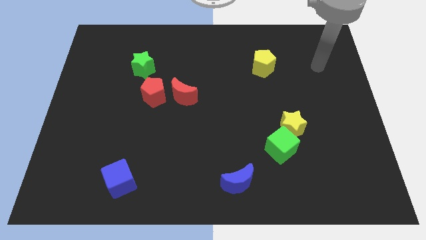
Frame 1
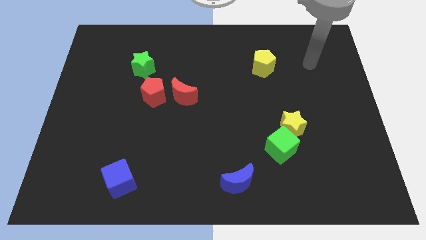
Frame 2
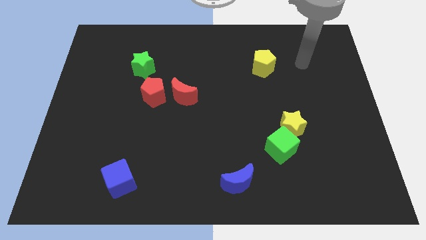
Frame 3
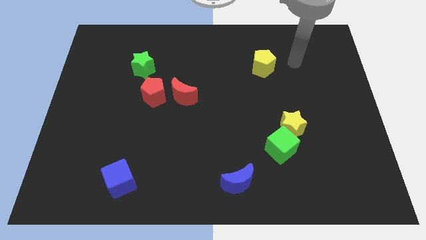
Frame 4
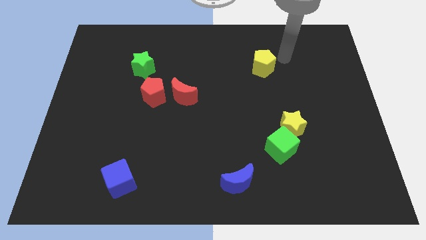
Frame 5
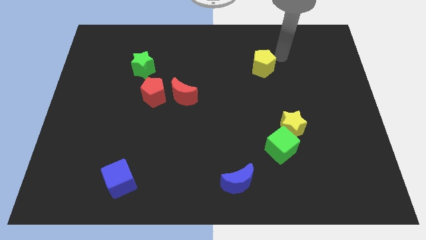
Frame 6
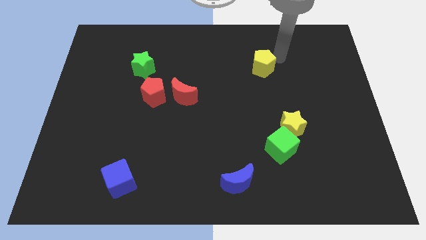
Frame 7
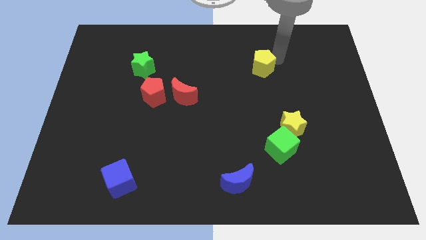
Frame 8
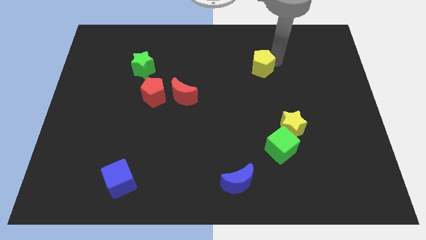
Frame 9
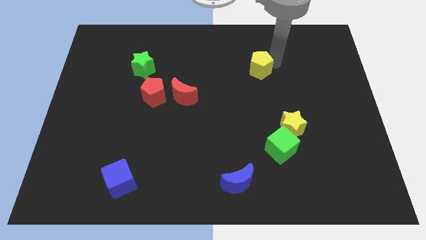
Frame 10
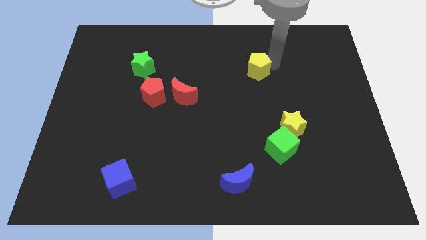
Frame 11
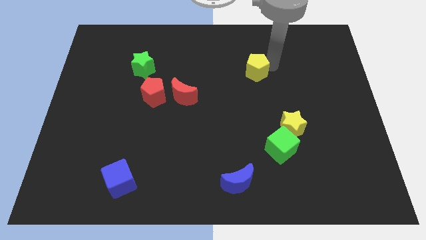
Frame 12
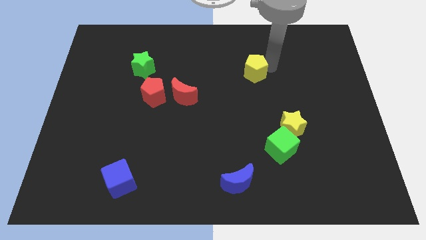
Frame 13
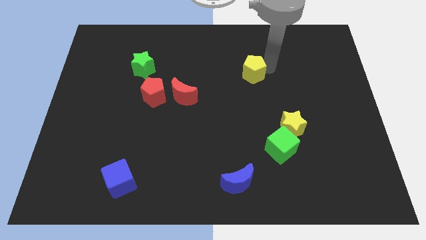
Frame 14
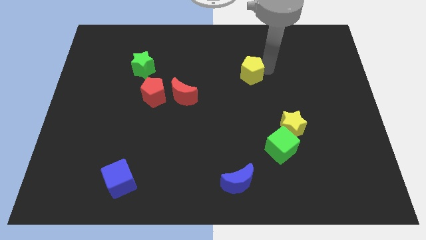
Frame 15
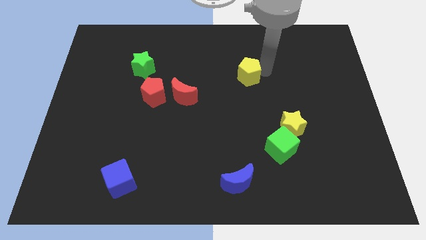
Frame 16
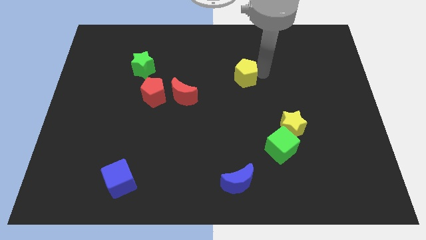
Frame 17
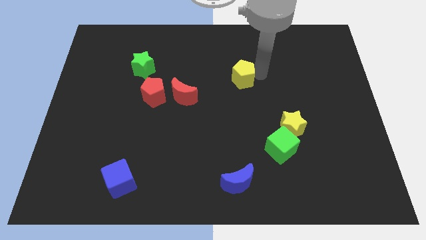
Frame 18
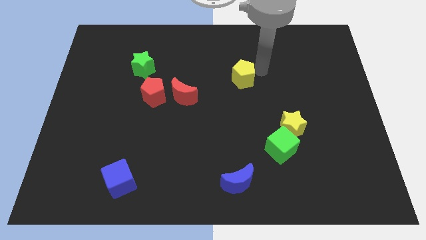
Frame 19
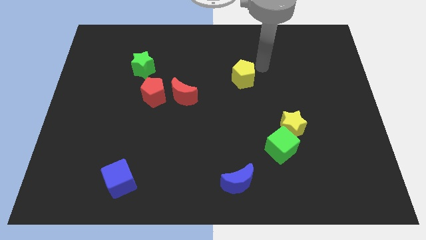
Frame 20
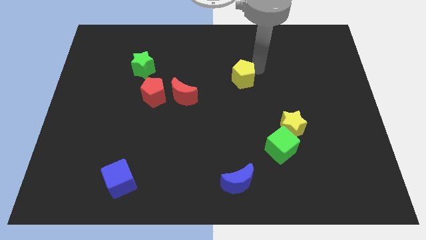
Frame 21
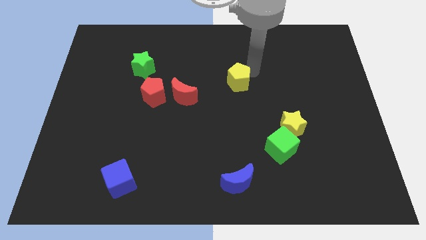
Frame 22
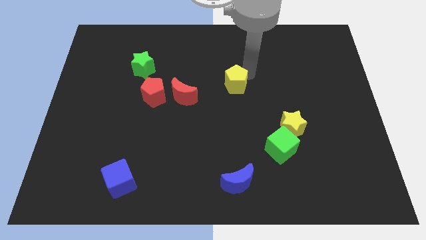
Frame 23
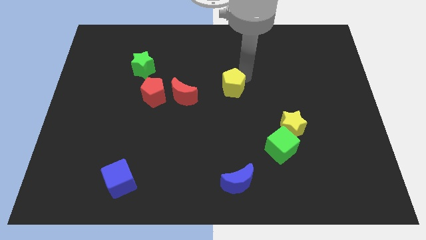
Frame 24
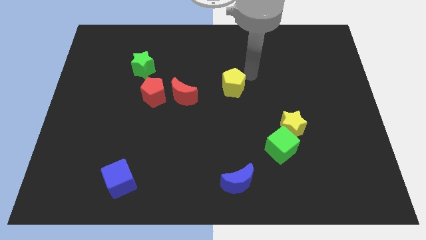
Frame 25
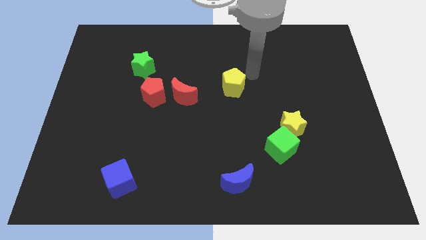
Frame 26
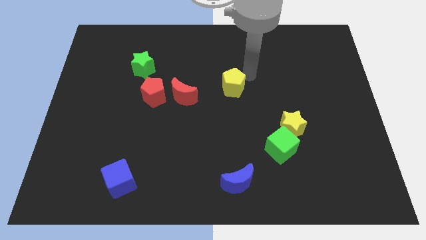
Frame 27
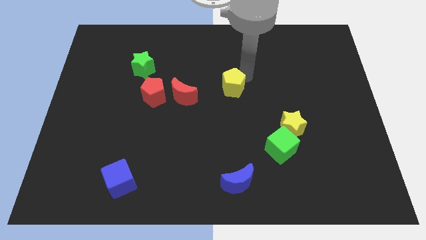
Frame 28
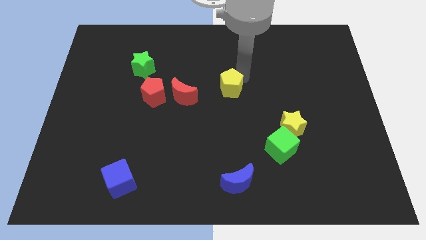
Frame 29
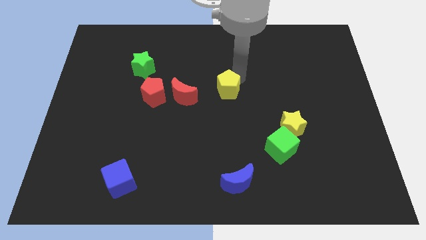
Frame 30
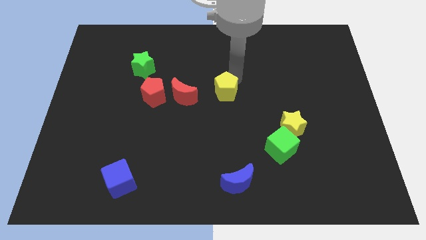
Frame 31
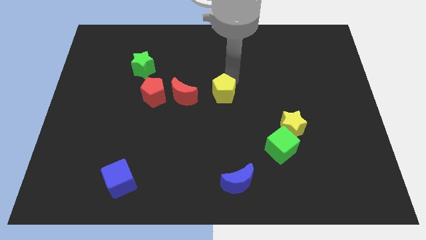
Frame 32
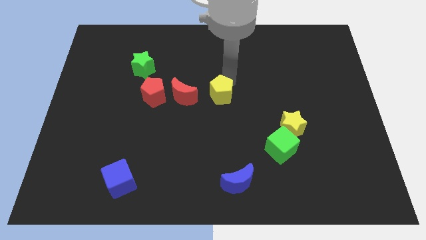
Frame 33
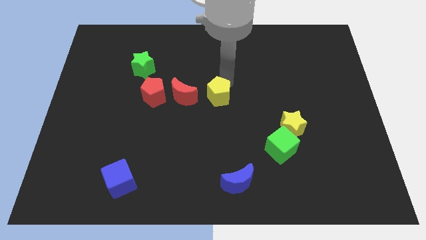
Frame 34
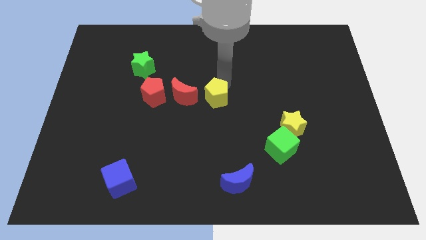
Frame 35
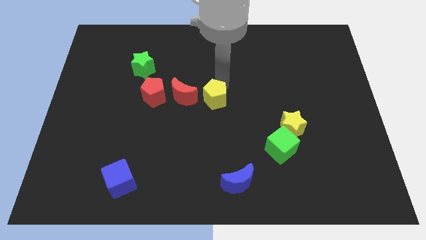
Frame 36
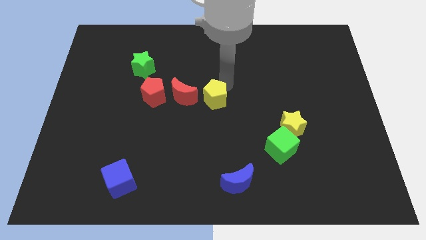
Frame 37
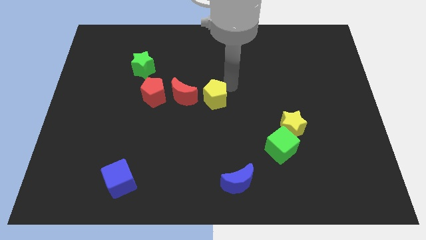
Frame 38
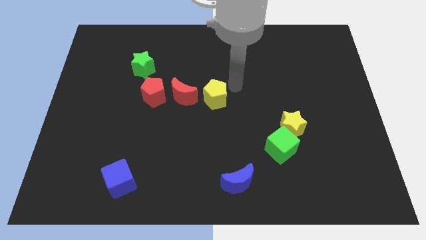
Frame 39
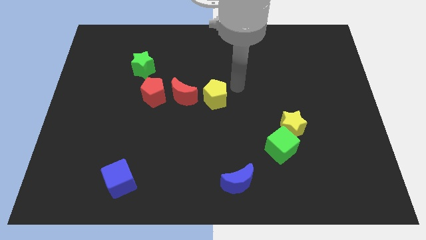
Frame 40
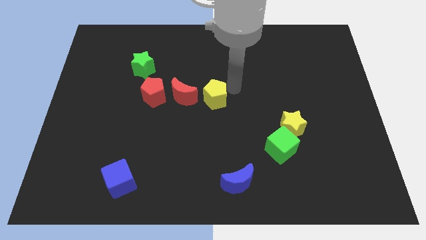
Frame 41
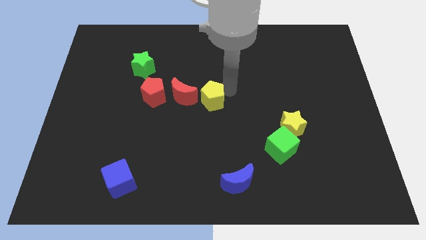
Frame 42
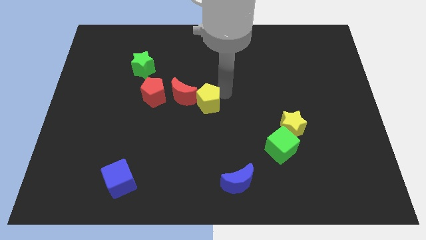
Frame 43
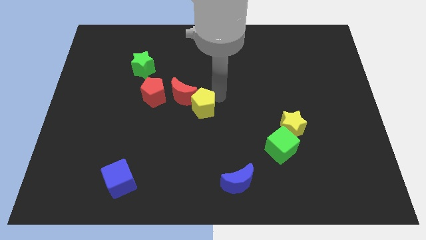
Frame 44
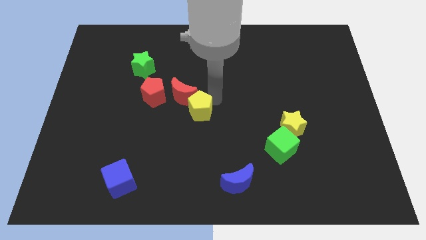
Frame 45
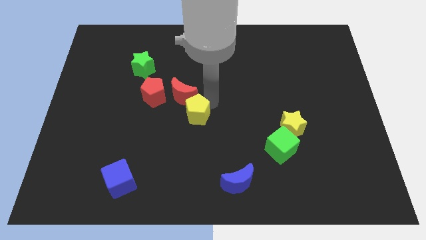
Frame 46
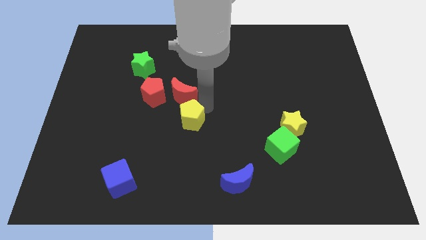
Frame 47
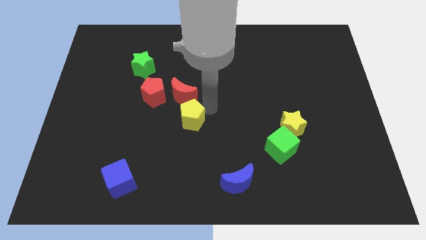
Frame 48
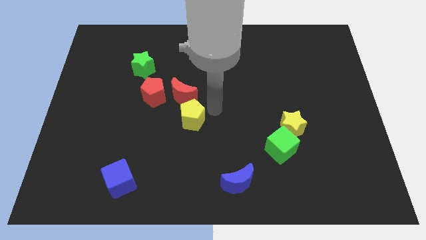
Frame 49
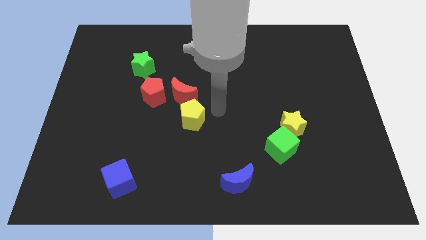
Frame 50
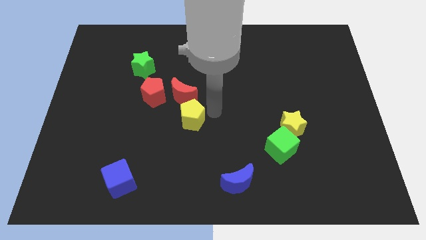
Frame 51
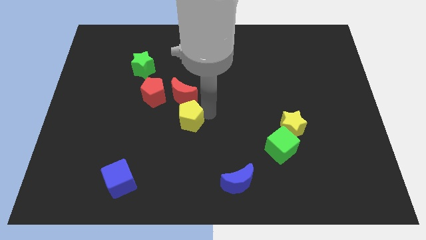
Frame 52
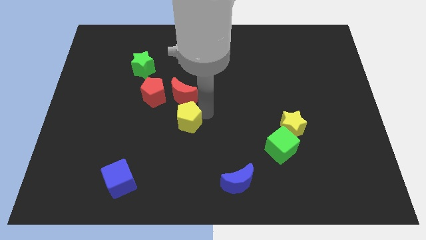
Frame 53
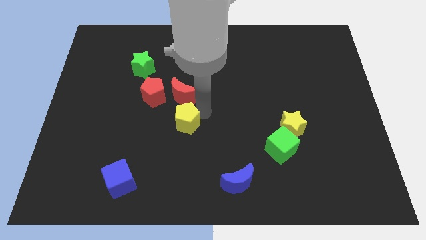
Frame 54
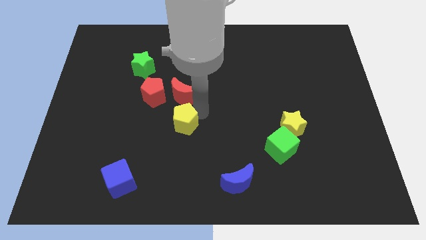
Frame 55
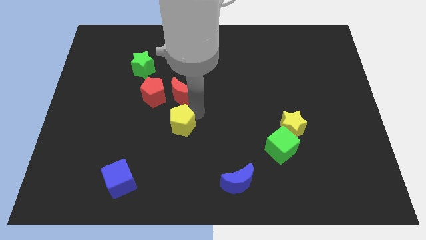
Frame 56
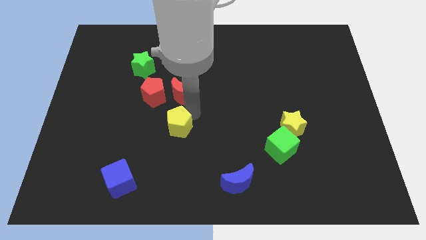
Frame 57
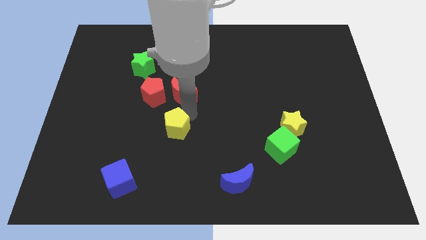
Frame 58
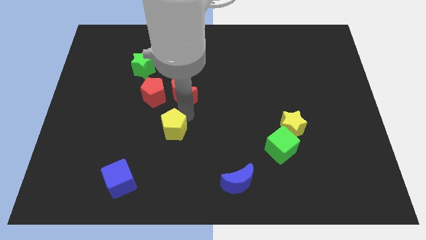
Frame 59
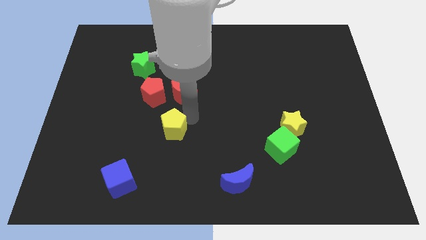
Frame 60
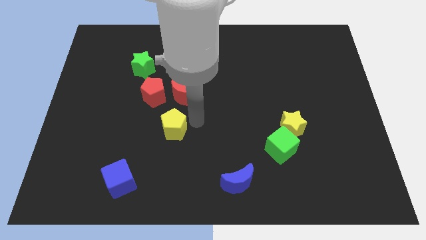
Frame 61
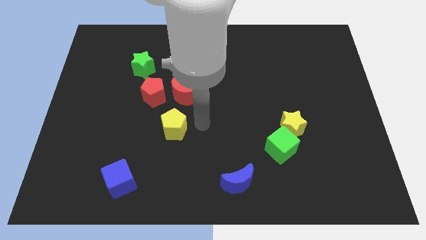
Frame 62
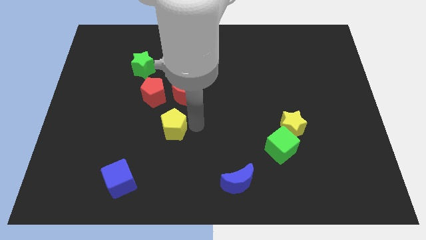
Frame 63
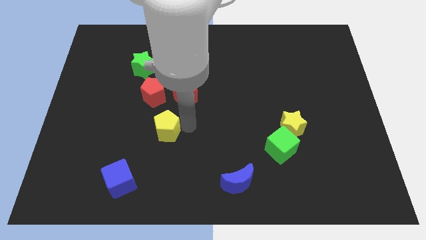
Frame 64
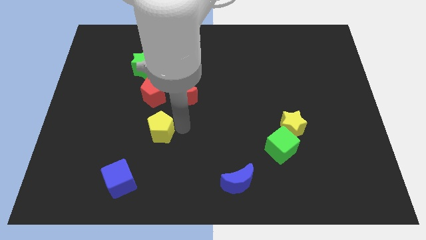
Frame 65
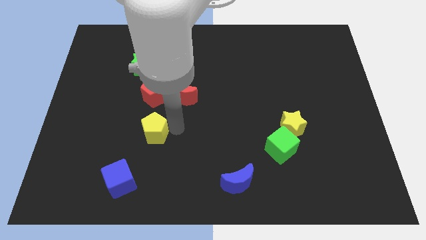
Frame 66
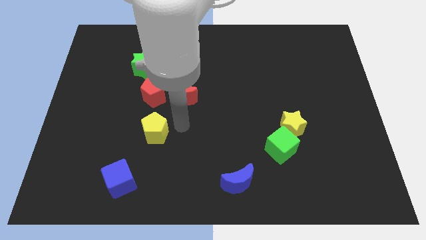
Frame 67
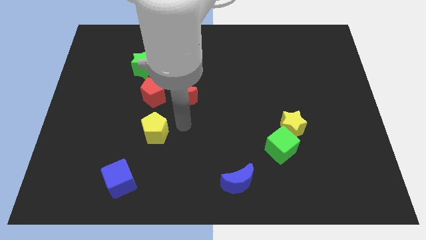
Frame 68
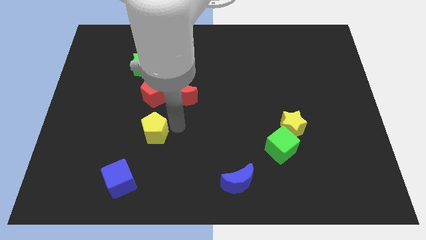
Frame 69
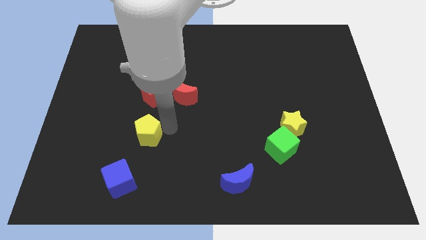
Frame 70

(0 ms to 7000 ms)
push the yellow pentagon above the blue cube
